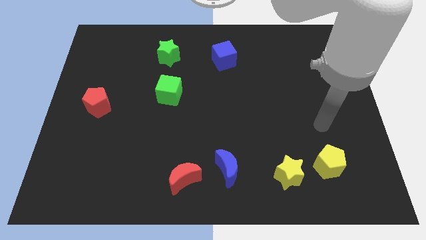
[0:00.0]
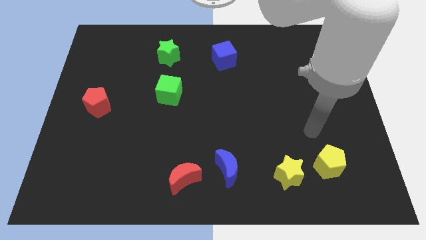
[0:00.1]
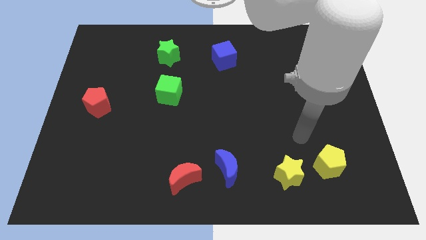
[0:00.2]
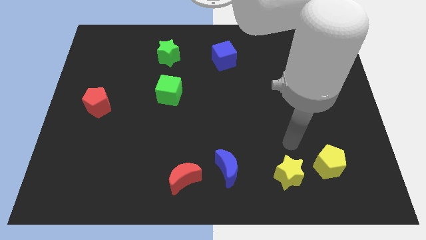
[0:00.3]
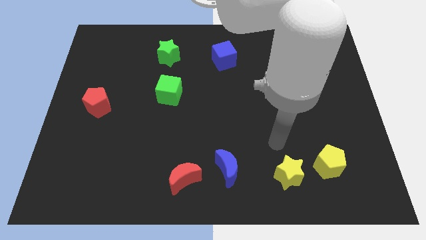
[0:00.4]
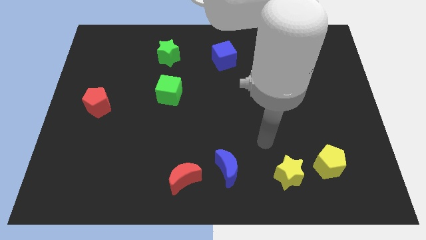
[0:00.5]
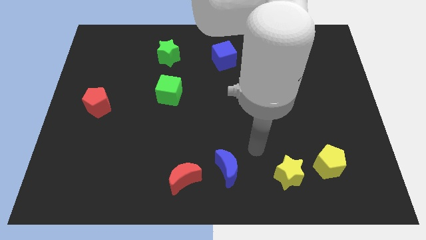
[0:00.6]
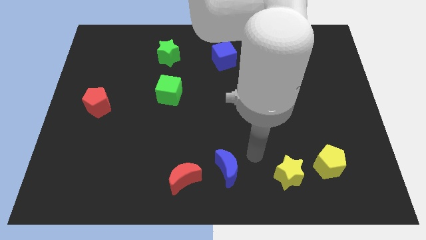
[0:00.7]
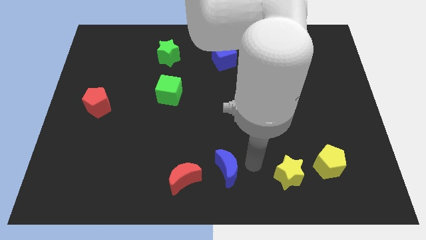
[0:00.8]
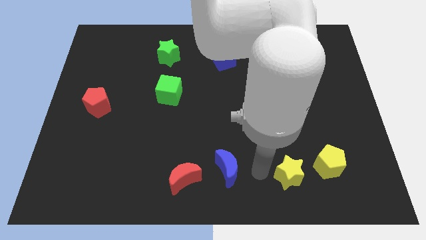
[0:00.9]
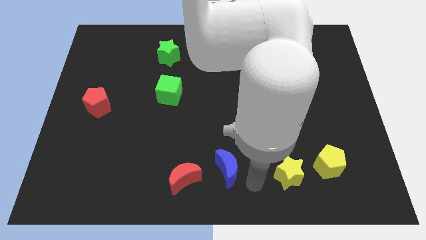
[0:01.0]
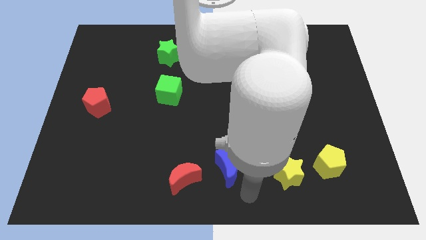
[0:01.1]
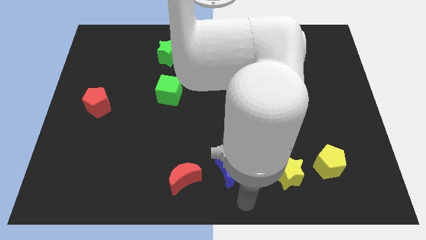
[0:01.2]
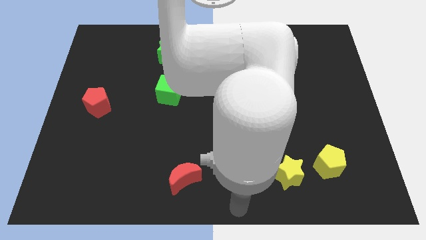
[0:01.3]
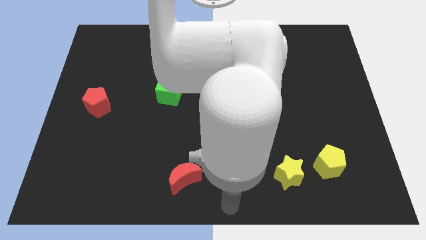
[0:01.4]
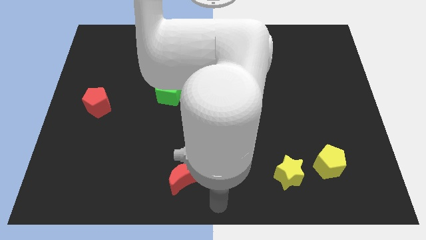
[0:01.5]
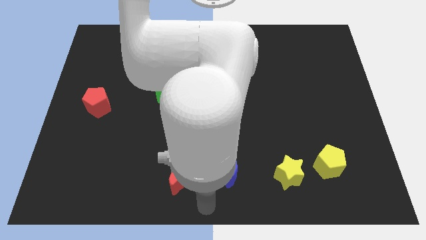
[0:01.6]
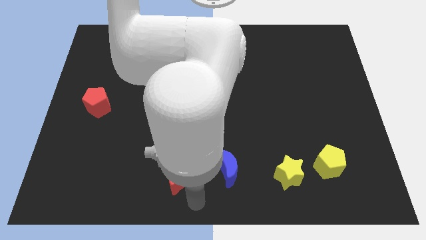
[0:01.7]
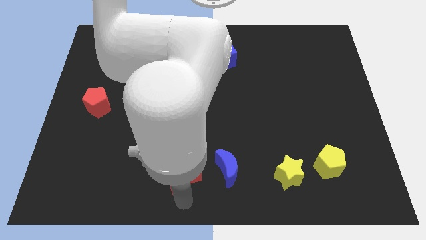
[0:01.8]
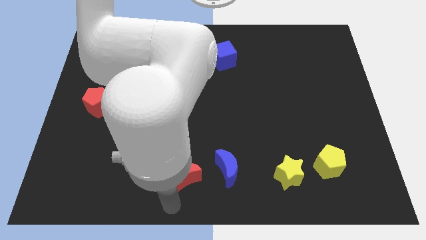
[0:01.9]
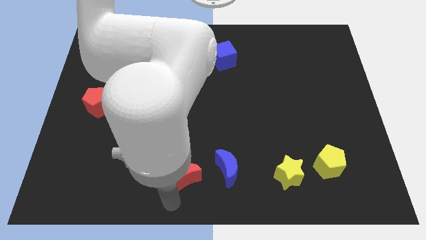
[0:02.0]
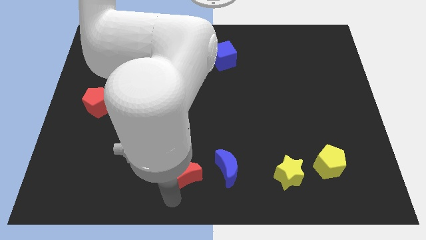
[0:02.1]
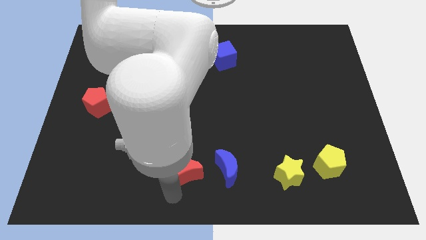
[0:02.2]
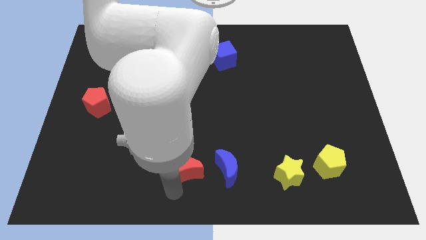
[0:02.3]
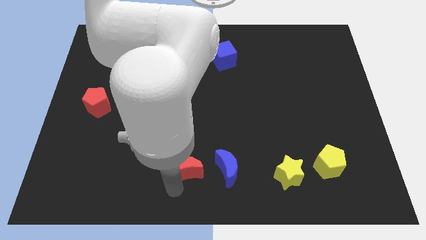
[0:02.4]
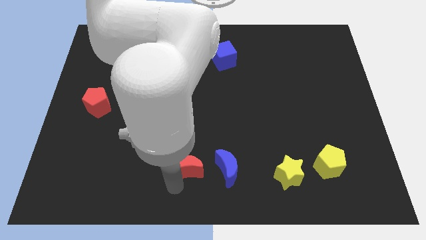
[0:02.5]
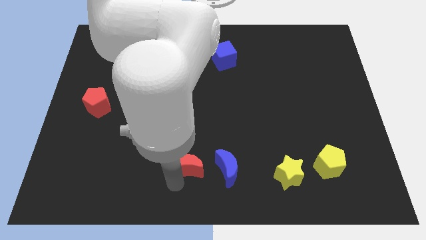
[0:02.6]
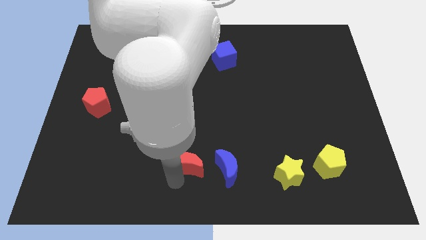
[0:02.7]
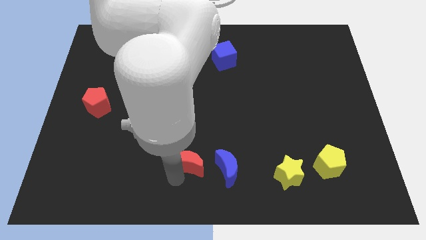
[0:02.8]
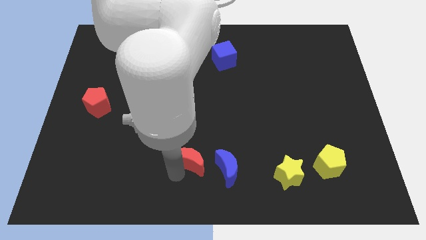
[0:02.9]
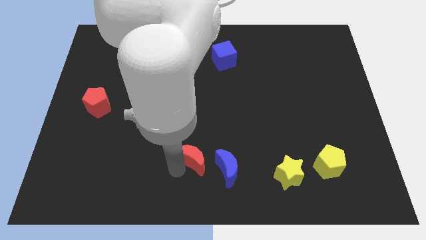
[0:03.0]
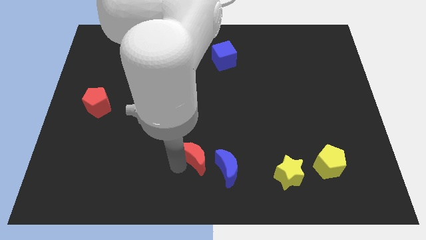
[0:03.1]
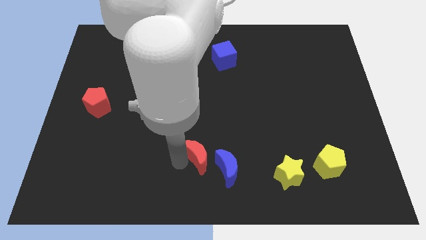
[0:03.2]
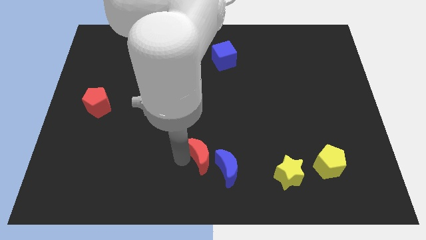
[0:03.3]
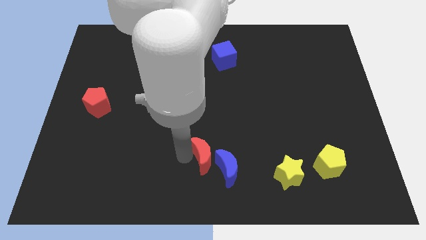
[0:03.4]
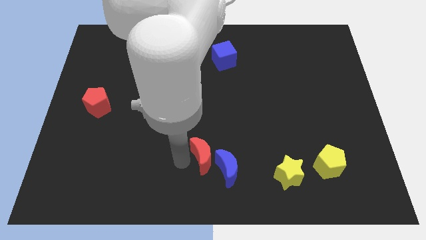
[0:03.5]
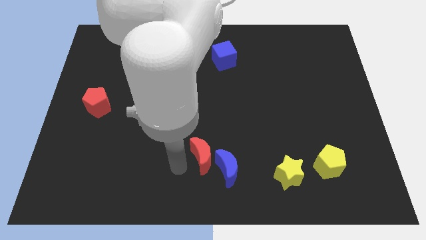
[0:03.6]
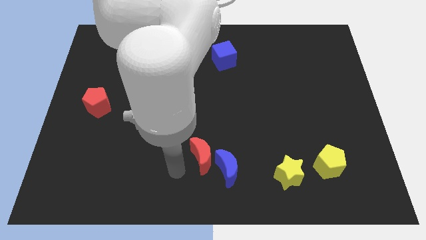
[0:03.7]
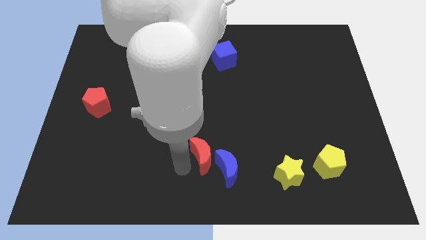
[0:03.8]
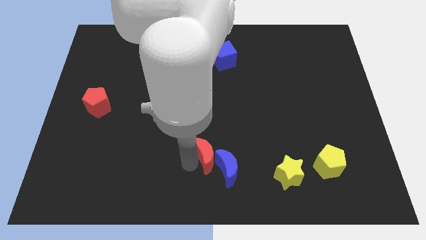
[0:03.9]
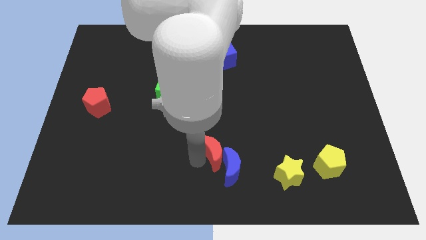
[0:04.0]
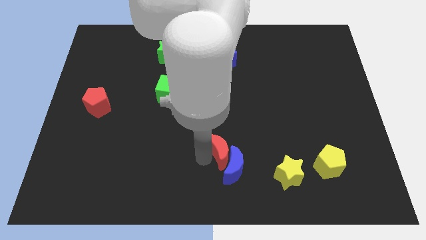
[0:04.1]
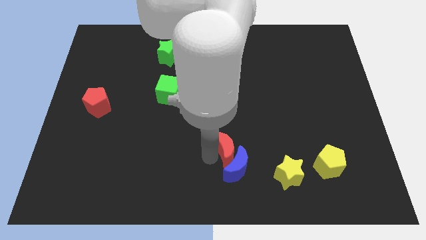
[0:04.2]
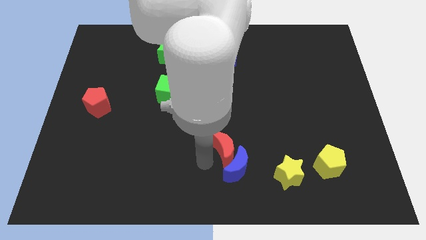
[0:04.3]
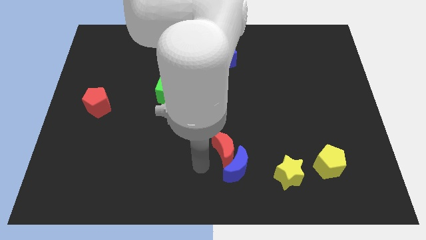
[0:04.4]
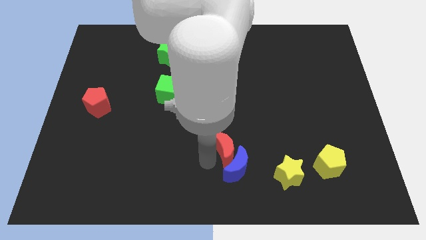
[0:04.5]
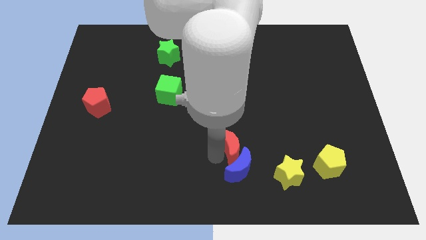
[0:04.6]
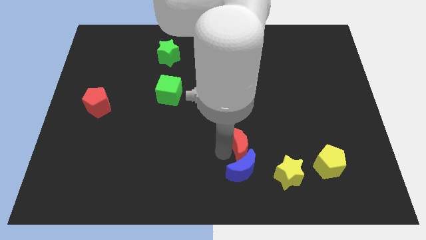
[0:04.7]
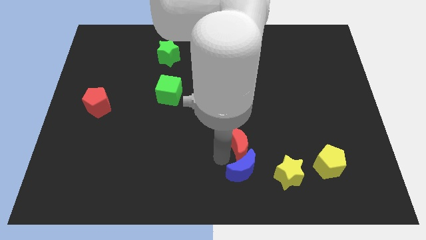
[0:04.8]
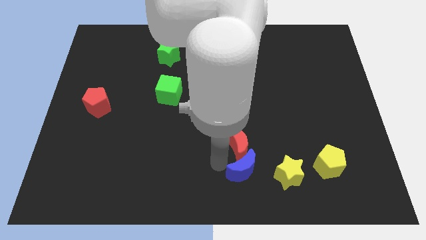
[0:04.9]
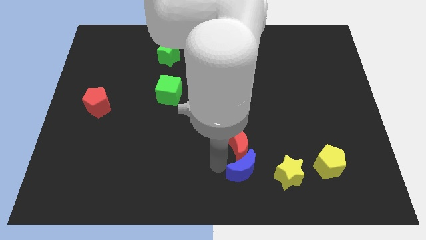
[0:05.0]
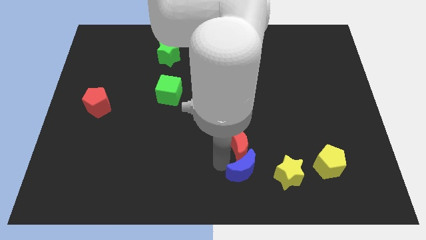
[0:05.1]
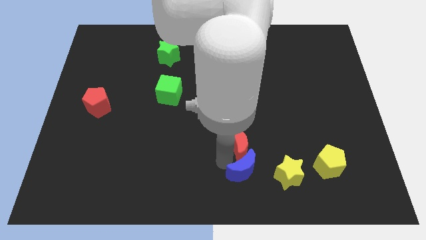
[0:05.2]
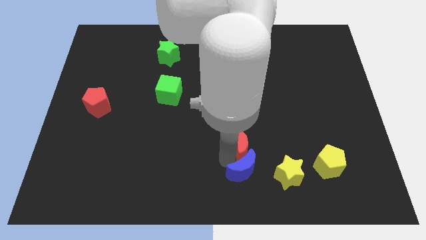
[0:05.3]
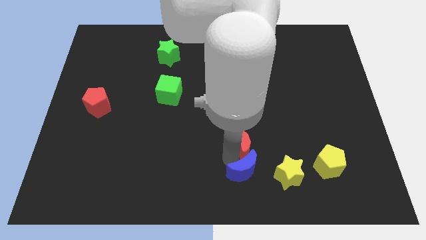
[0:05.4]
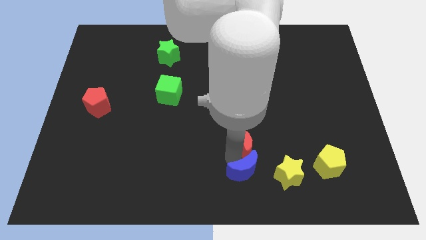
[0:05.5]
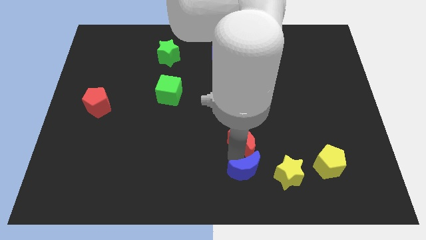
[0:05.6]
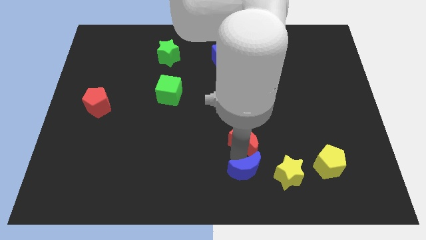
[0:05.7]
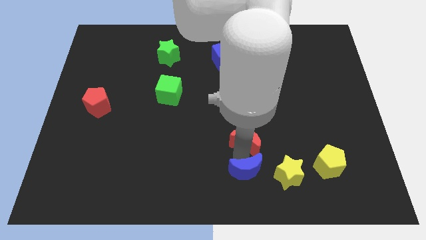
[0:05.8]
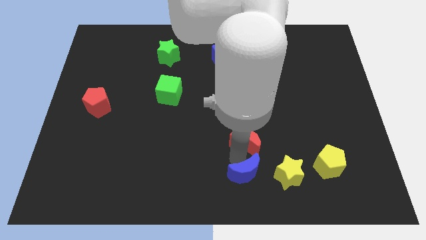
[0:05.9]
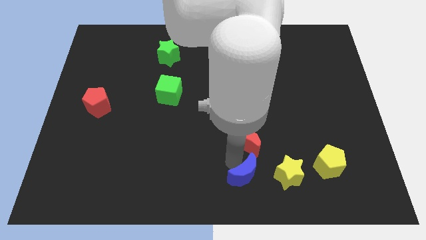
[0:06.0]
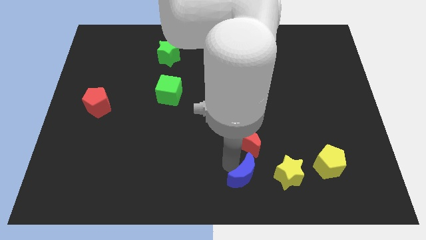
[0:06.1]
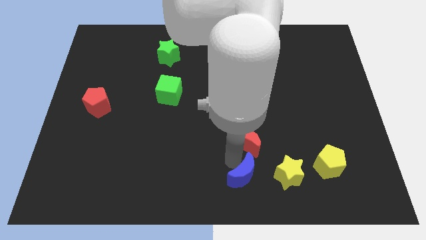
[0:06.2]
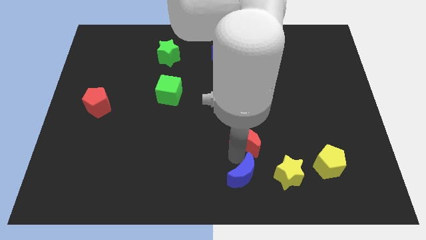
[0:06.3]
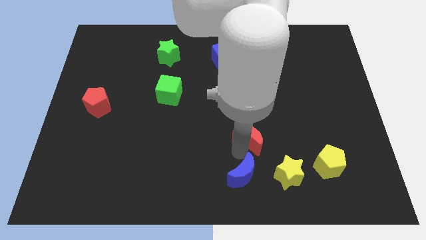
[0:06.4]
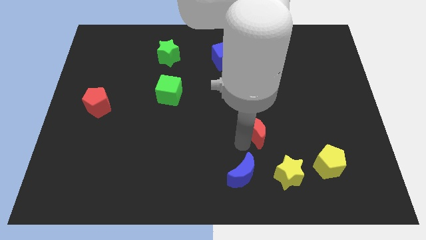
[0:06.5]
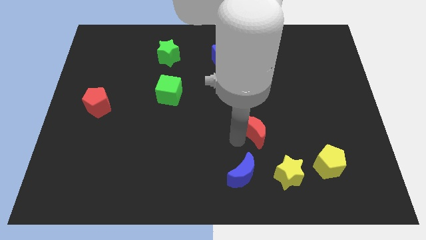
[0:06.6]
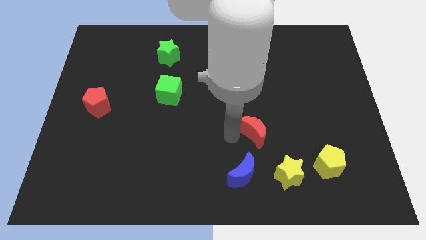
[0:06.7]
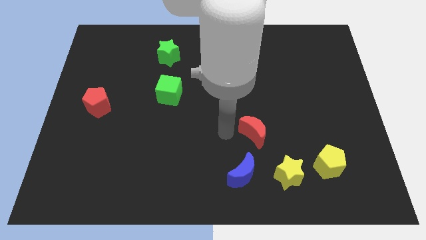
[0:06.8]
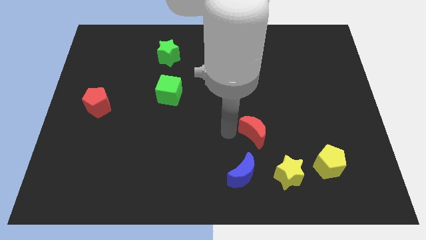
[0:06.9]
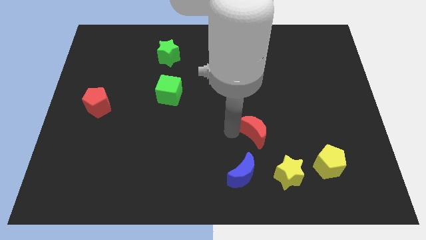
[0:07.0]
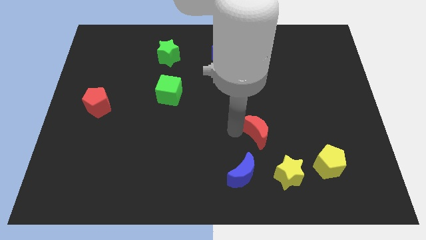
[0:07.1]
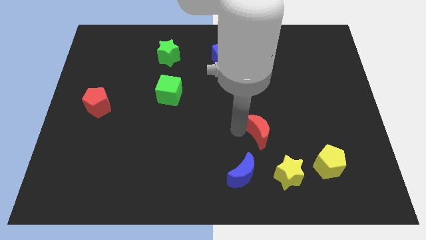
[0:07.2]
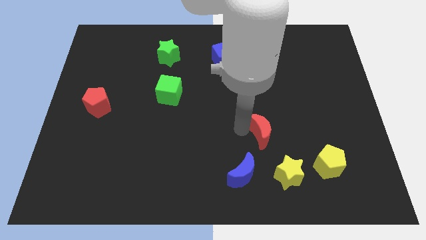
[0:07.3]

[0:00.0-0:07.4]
put the red moon to the top side of the yellow star
